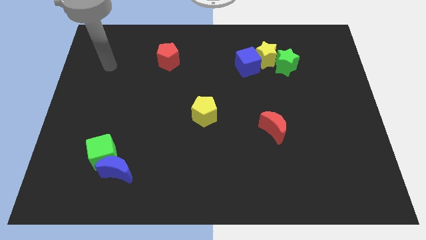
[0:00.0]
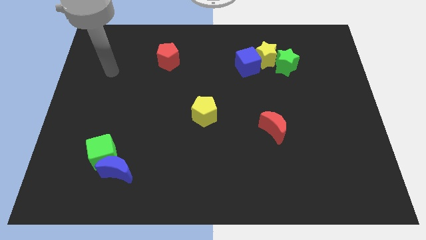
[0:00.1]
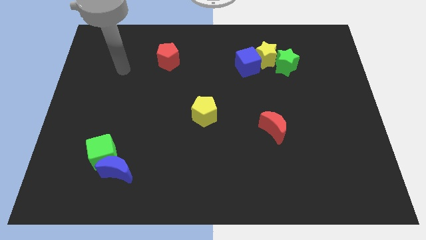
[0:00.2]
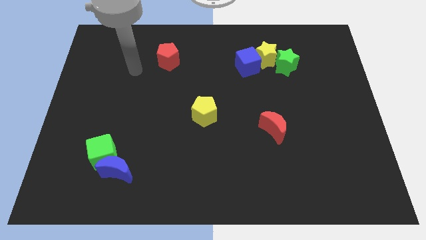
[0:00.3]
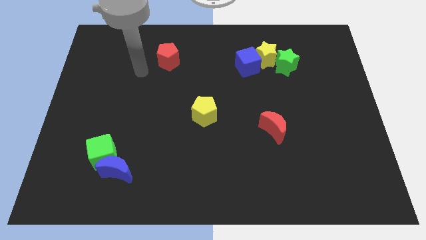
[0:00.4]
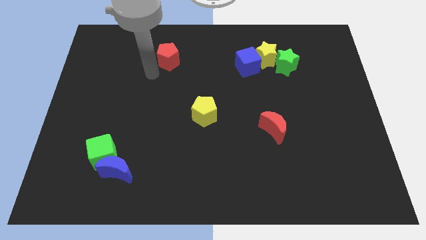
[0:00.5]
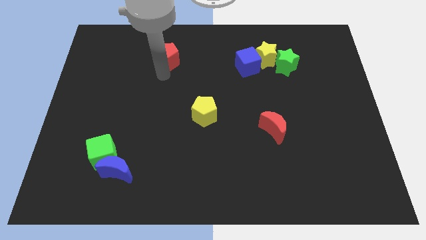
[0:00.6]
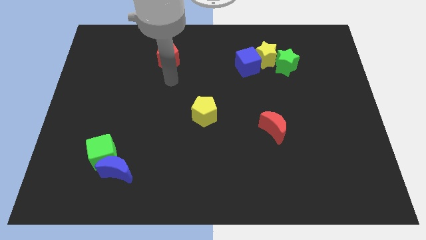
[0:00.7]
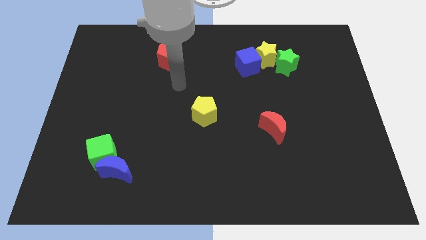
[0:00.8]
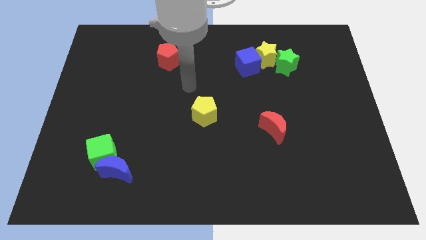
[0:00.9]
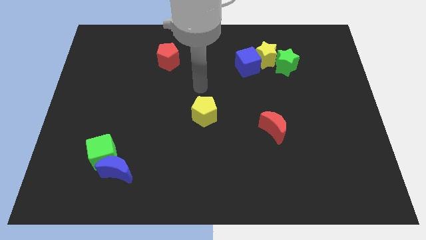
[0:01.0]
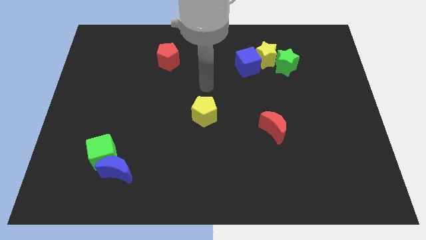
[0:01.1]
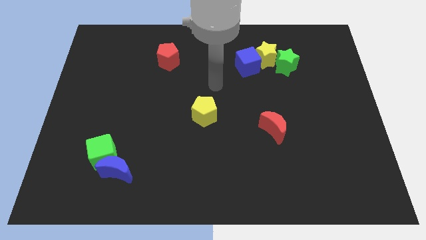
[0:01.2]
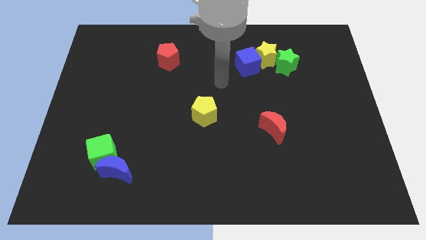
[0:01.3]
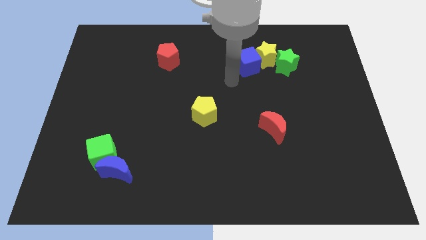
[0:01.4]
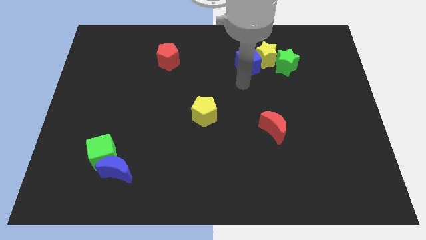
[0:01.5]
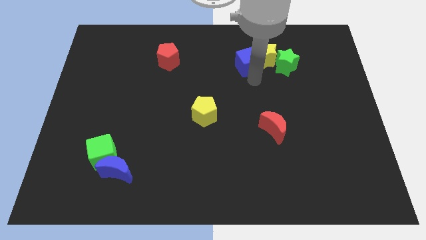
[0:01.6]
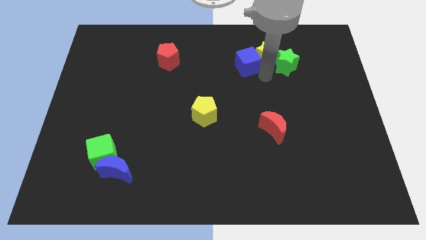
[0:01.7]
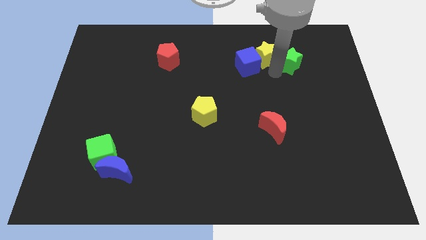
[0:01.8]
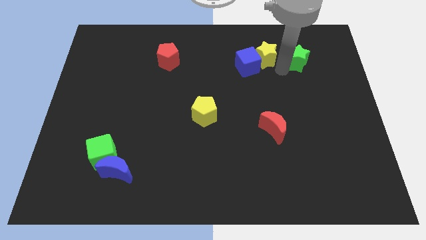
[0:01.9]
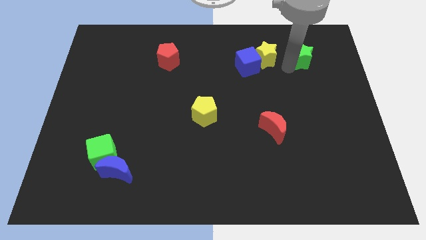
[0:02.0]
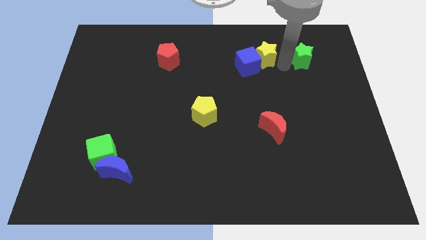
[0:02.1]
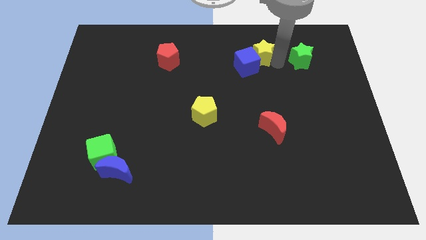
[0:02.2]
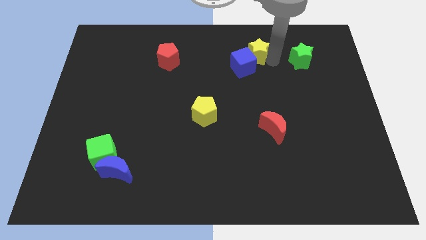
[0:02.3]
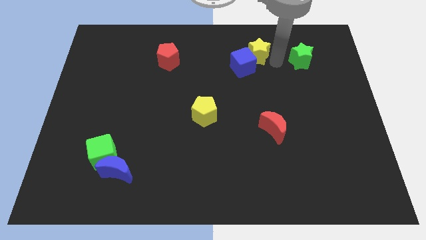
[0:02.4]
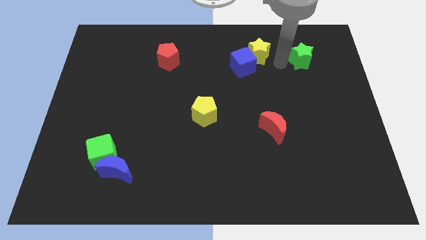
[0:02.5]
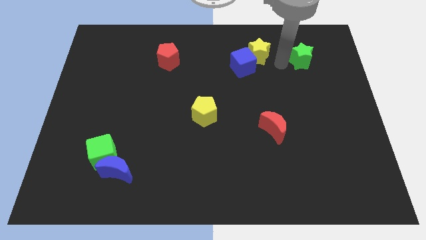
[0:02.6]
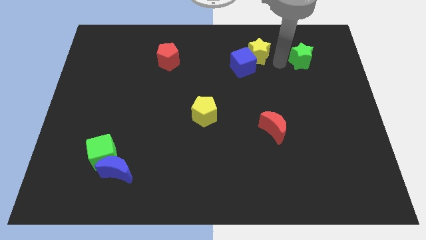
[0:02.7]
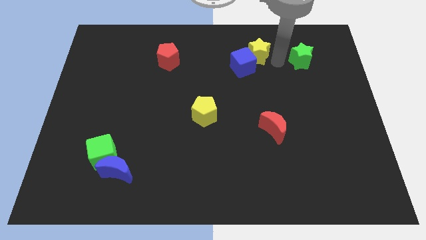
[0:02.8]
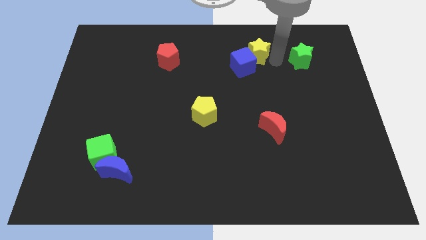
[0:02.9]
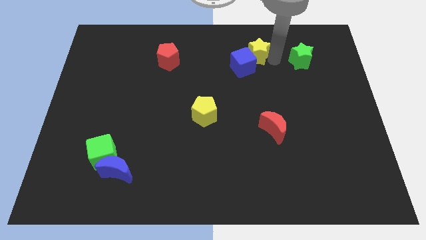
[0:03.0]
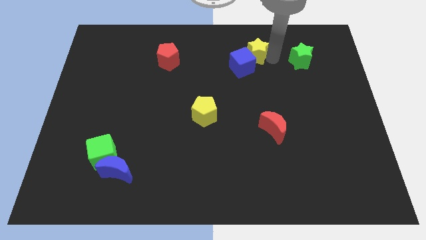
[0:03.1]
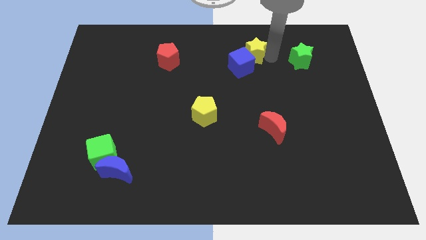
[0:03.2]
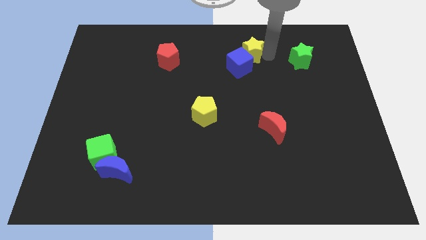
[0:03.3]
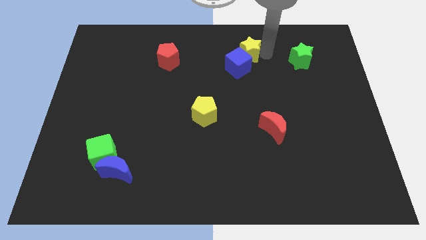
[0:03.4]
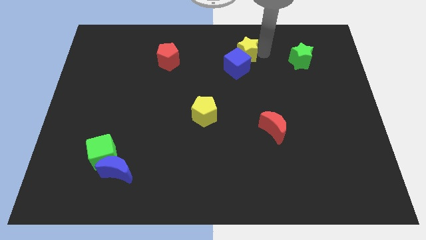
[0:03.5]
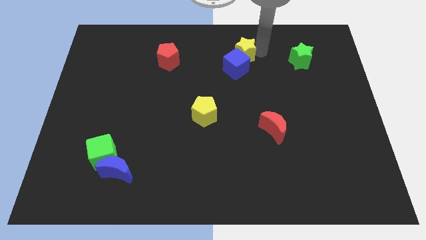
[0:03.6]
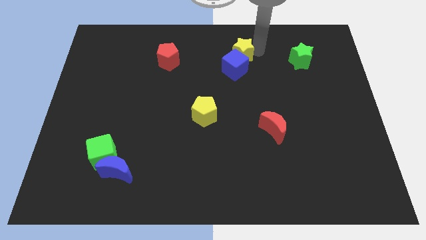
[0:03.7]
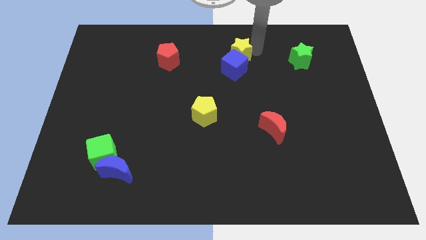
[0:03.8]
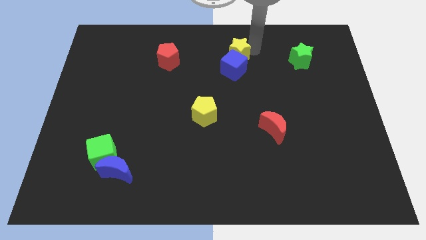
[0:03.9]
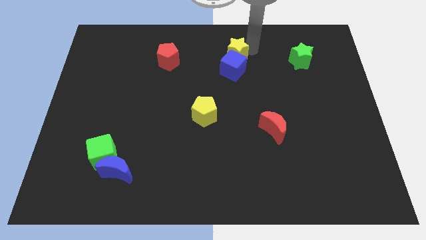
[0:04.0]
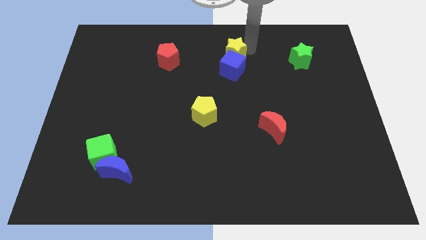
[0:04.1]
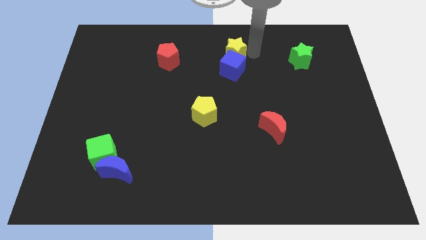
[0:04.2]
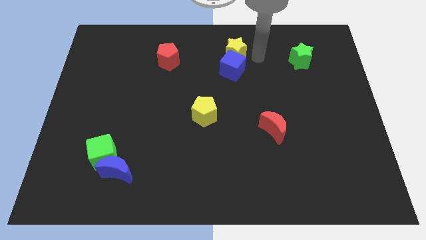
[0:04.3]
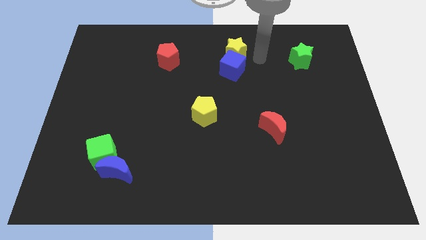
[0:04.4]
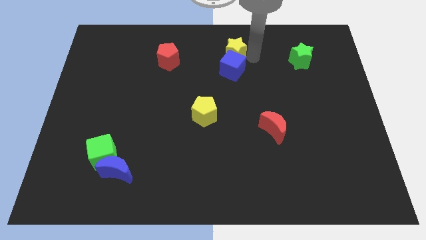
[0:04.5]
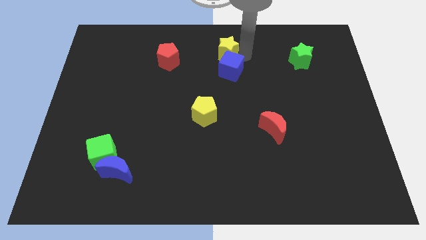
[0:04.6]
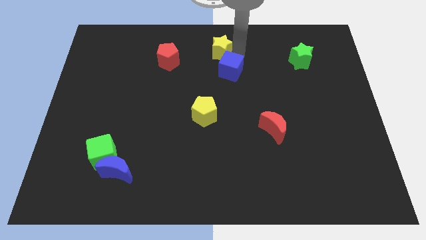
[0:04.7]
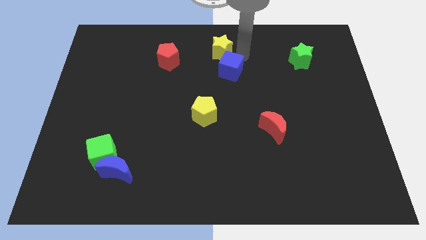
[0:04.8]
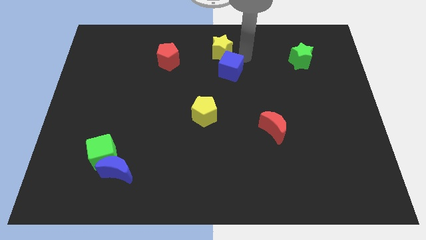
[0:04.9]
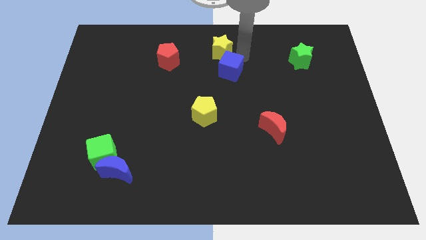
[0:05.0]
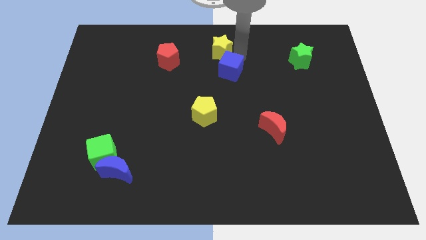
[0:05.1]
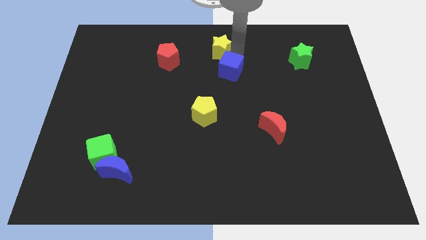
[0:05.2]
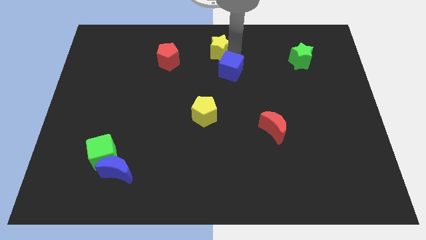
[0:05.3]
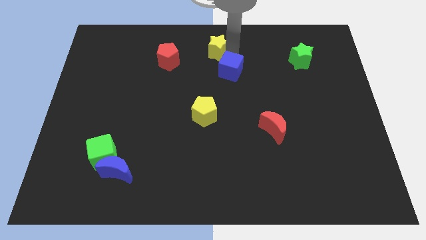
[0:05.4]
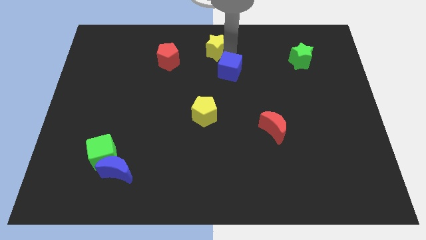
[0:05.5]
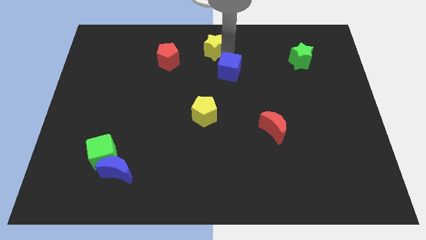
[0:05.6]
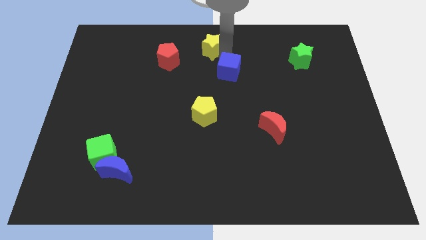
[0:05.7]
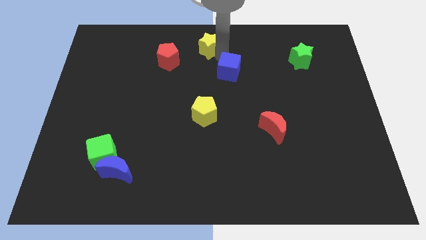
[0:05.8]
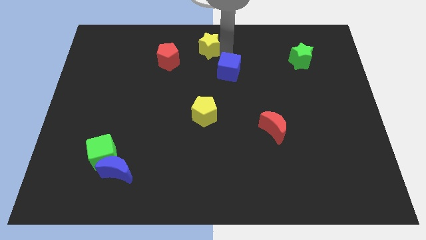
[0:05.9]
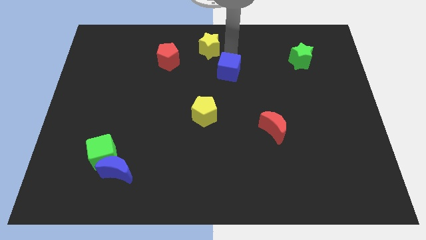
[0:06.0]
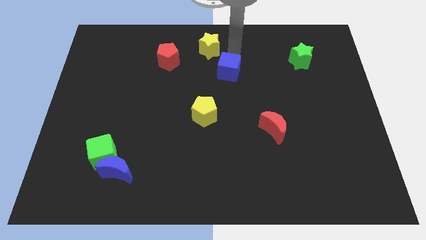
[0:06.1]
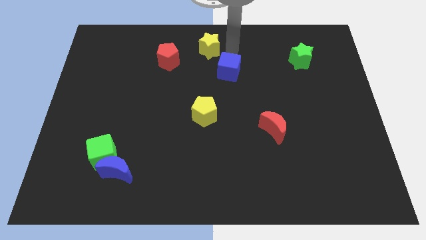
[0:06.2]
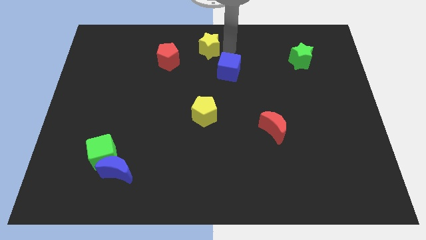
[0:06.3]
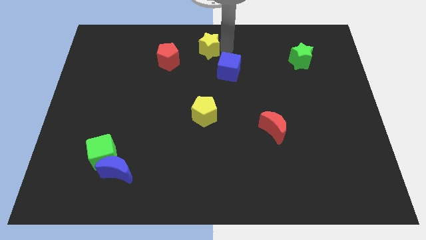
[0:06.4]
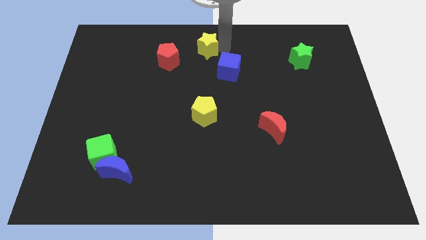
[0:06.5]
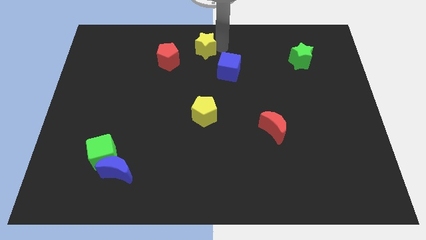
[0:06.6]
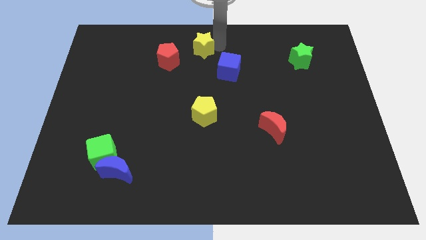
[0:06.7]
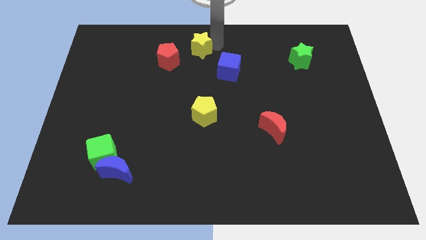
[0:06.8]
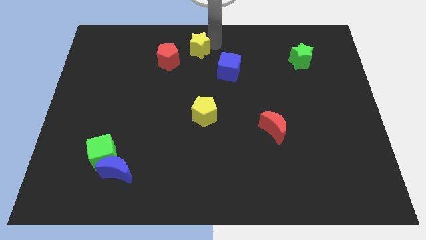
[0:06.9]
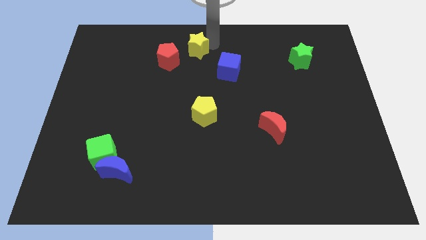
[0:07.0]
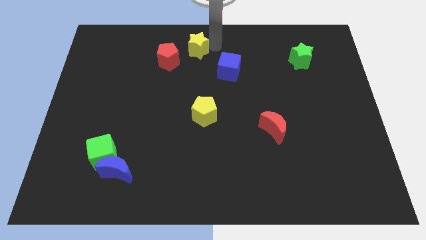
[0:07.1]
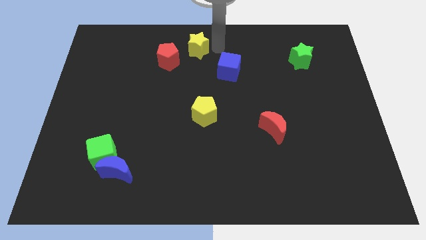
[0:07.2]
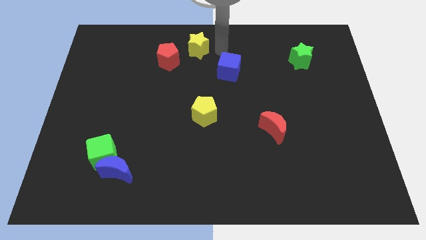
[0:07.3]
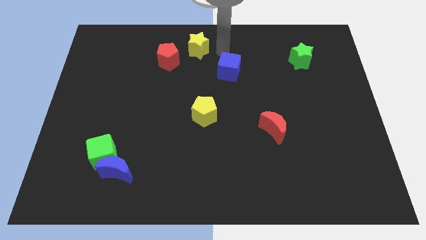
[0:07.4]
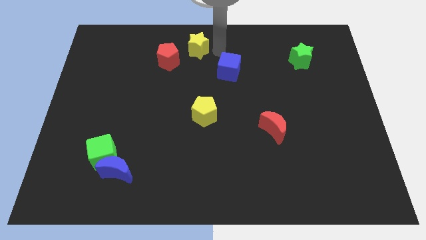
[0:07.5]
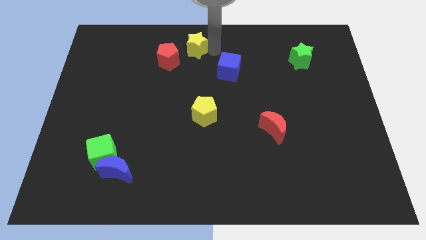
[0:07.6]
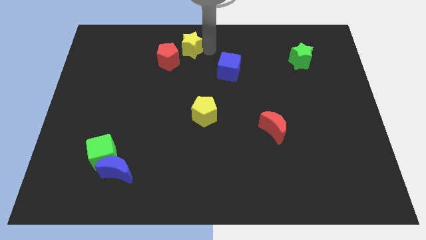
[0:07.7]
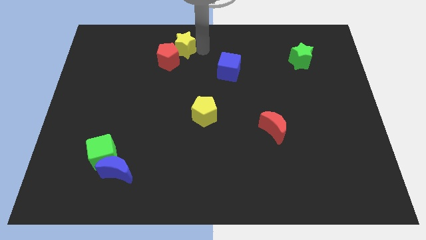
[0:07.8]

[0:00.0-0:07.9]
move the yellow star to the left

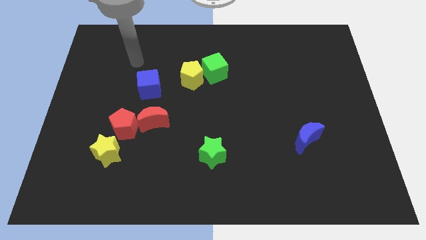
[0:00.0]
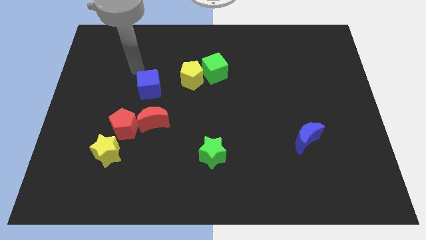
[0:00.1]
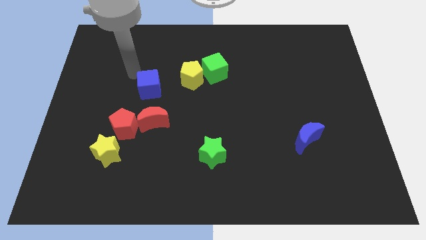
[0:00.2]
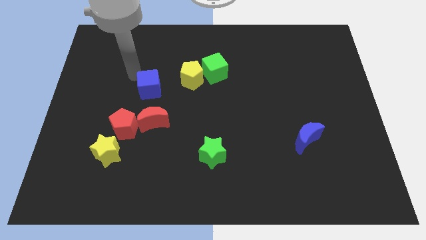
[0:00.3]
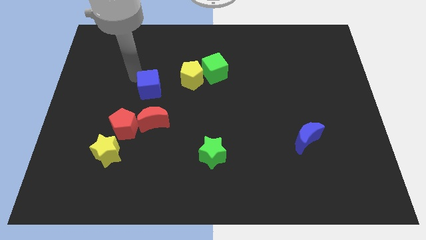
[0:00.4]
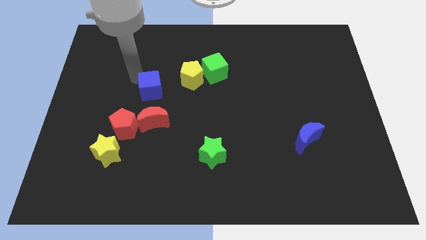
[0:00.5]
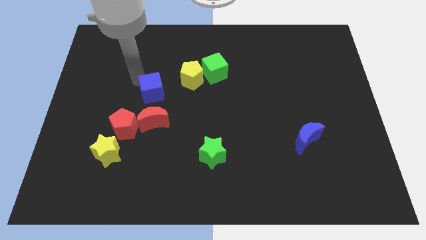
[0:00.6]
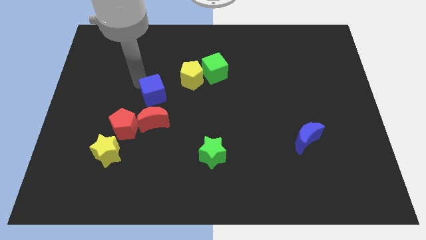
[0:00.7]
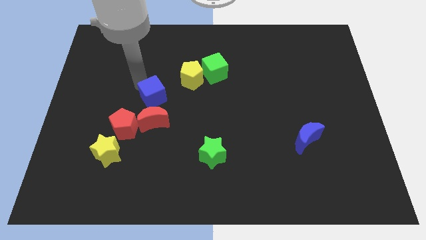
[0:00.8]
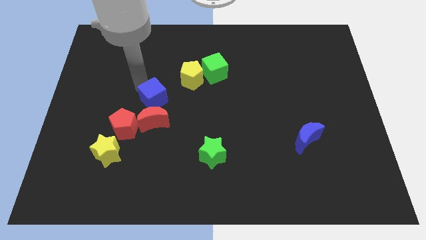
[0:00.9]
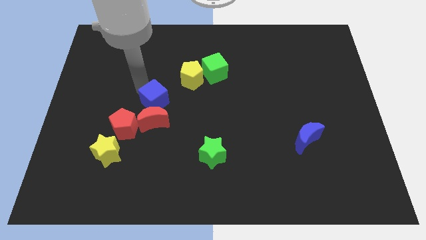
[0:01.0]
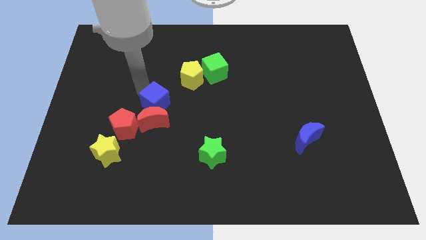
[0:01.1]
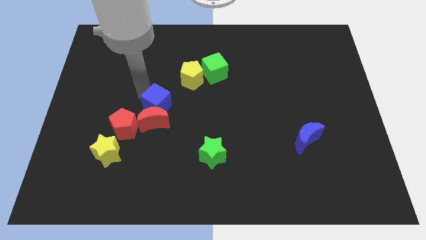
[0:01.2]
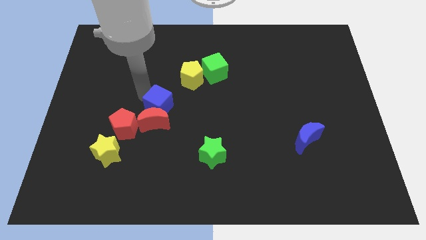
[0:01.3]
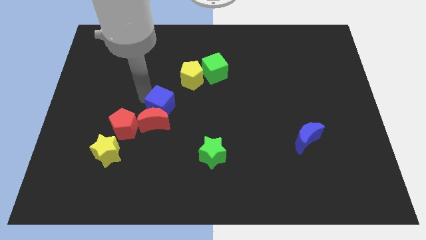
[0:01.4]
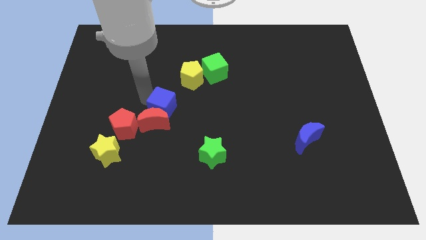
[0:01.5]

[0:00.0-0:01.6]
slide the blue cube down and right a bit
